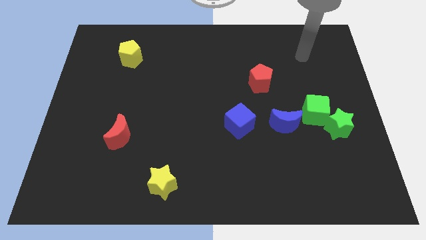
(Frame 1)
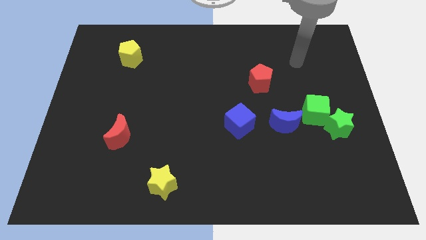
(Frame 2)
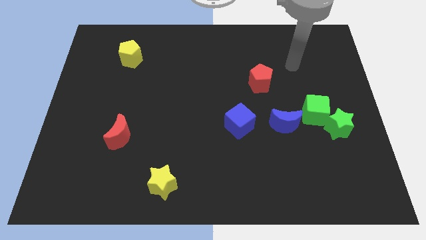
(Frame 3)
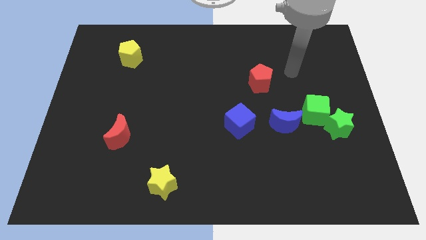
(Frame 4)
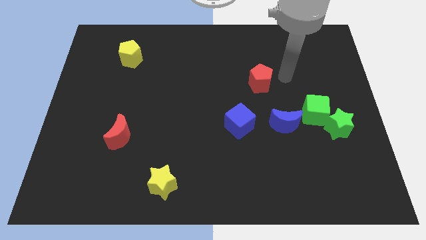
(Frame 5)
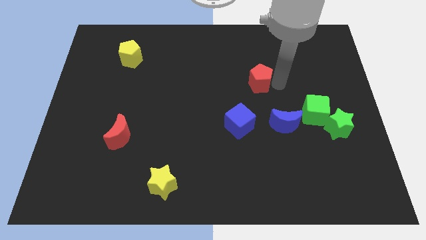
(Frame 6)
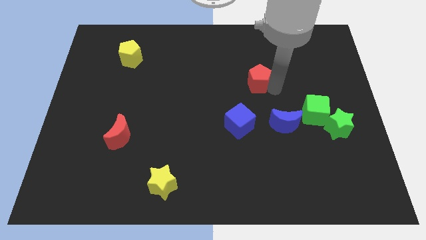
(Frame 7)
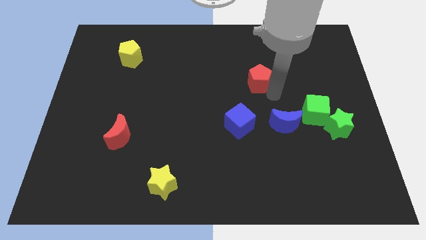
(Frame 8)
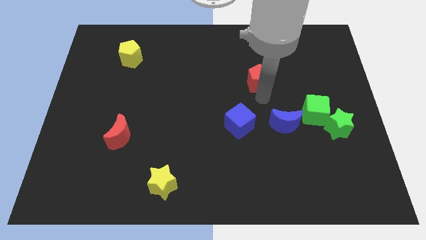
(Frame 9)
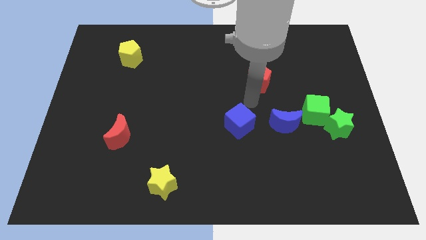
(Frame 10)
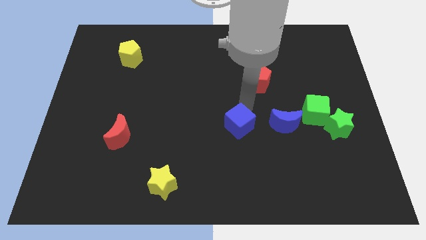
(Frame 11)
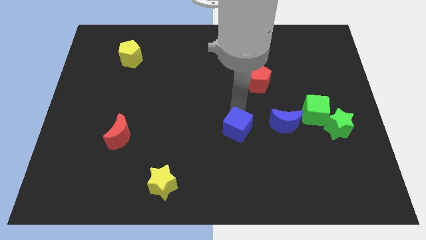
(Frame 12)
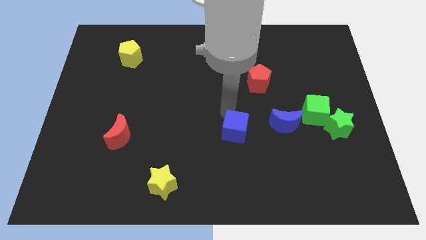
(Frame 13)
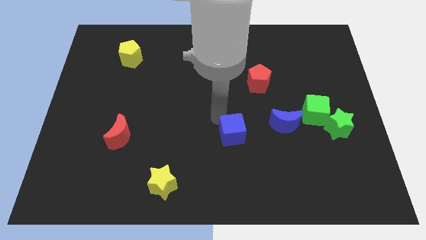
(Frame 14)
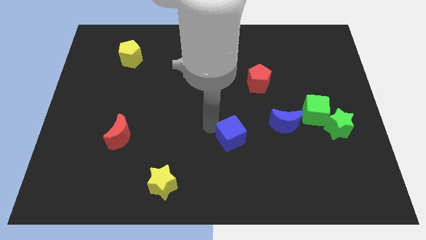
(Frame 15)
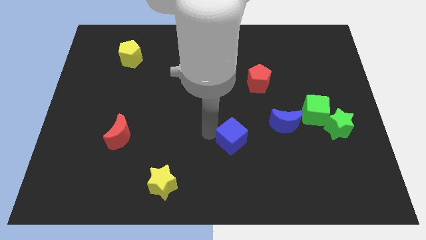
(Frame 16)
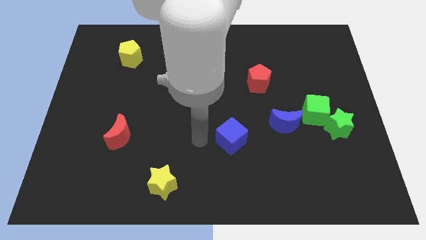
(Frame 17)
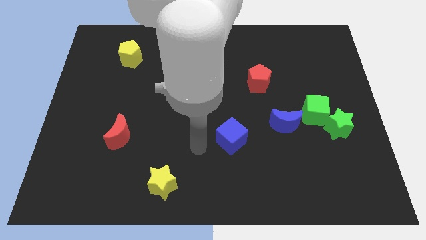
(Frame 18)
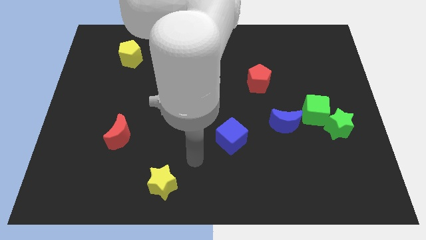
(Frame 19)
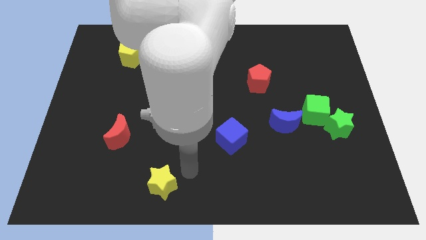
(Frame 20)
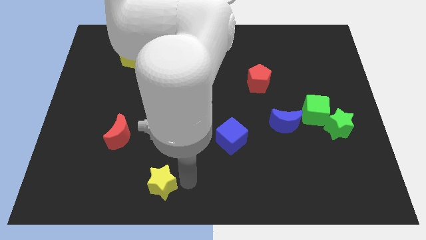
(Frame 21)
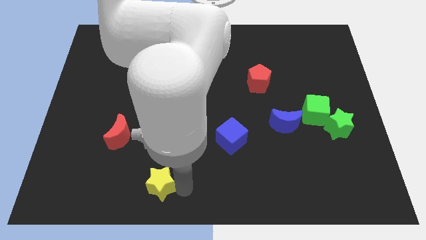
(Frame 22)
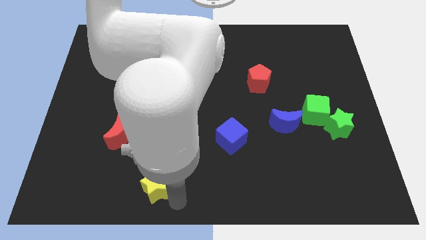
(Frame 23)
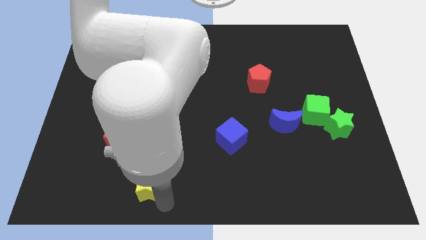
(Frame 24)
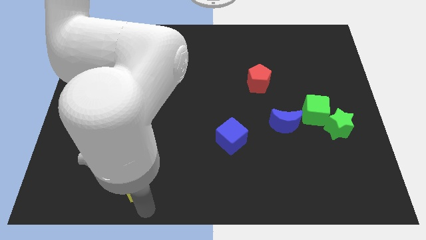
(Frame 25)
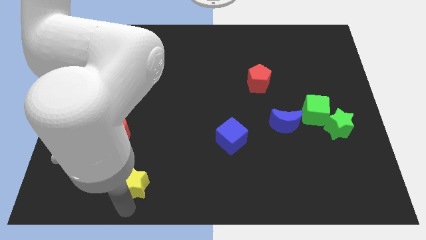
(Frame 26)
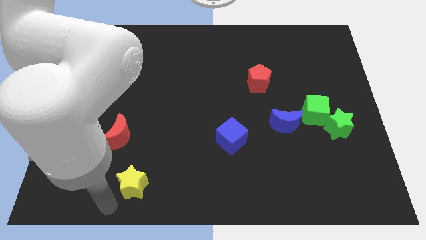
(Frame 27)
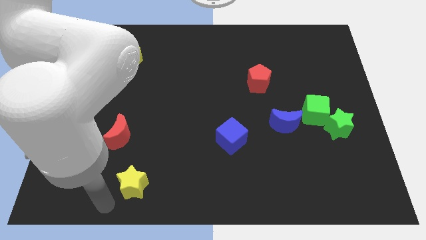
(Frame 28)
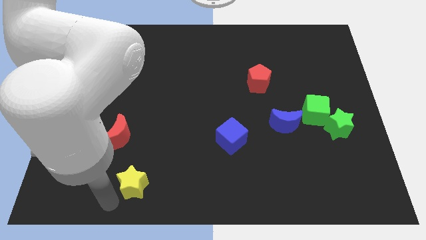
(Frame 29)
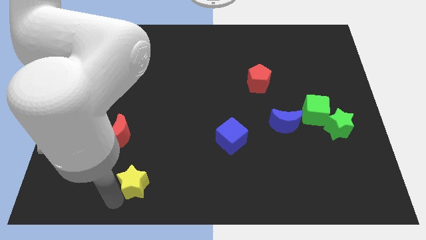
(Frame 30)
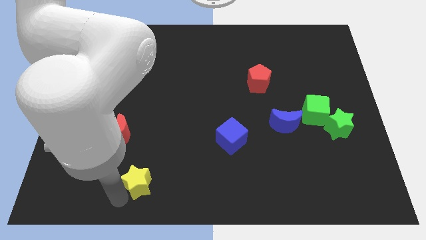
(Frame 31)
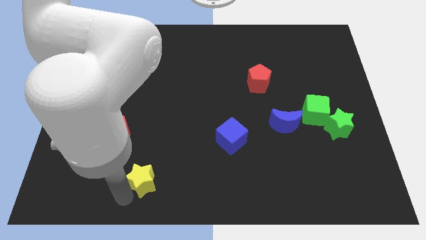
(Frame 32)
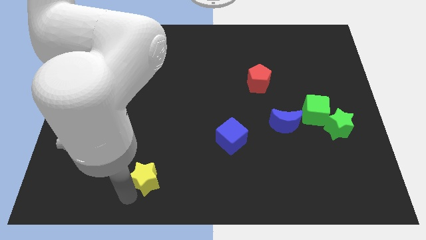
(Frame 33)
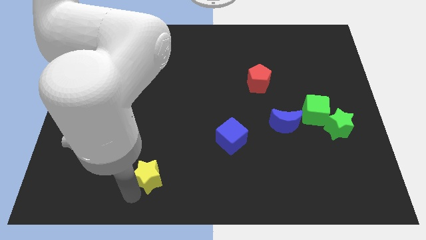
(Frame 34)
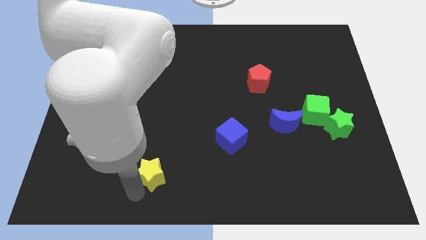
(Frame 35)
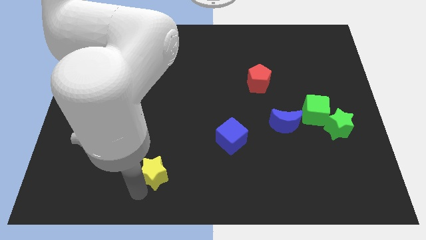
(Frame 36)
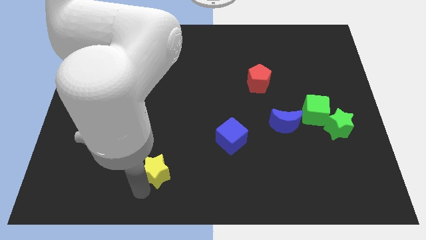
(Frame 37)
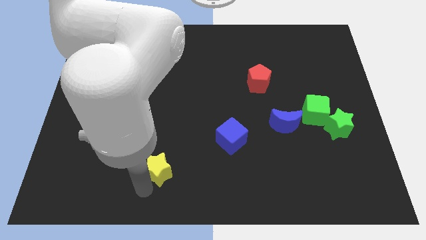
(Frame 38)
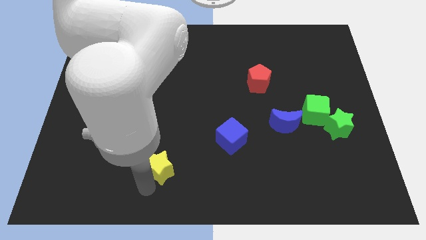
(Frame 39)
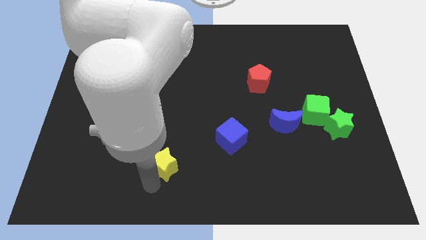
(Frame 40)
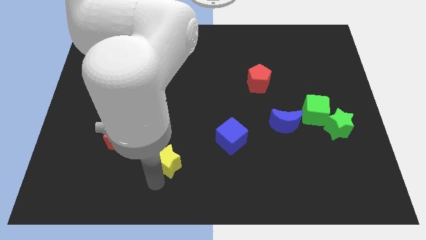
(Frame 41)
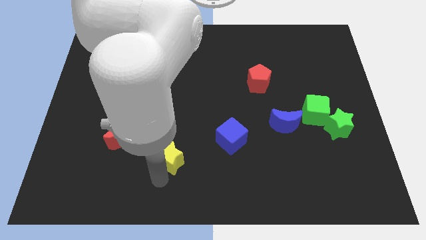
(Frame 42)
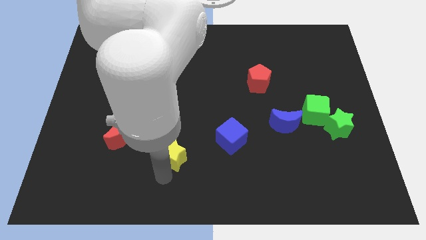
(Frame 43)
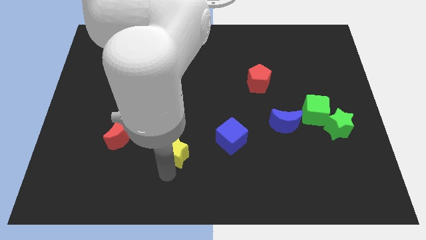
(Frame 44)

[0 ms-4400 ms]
move the yellow star a little up

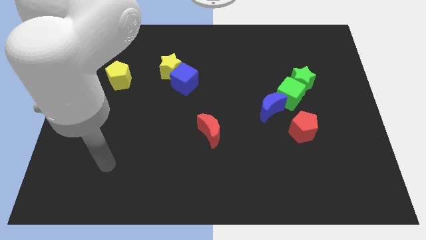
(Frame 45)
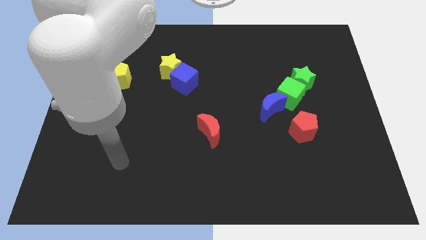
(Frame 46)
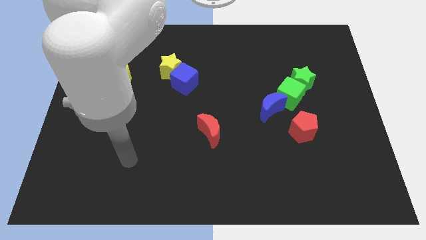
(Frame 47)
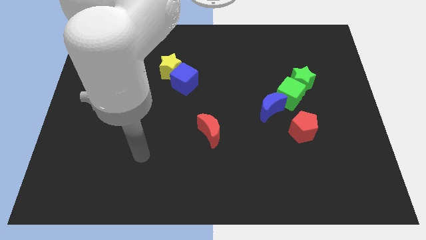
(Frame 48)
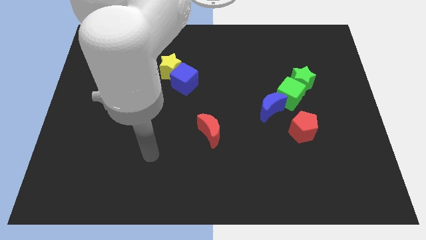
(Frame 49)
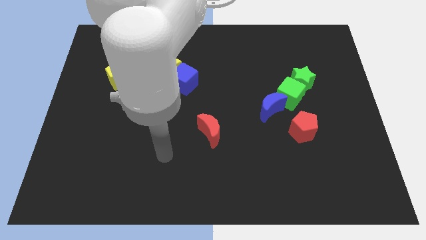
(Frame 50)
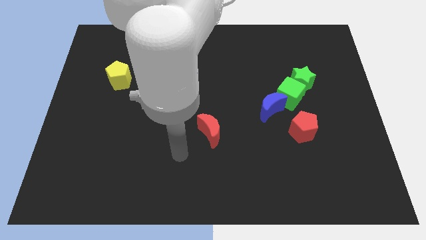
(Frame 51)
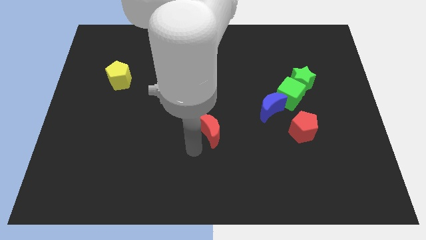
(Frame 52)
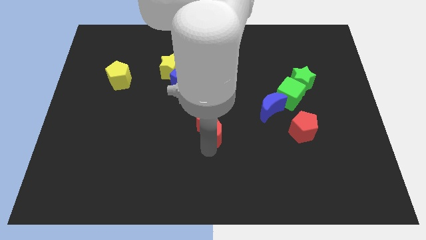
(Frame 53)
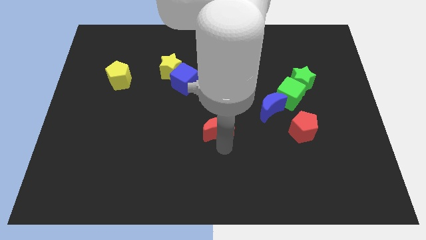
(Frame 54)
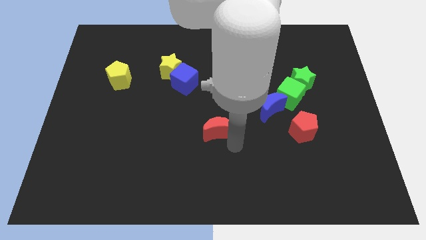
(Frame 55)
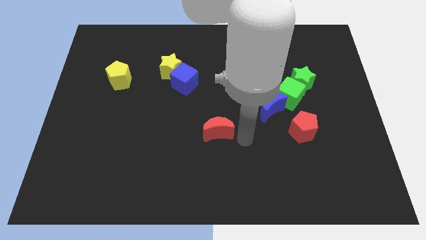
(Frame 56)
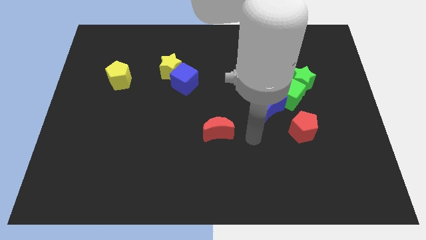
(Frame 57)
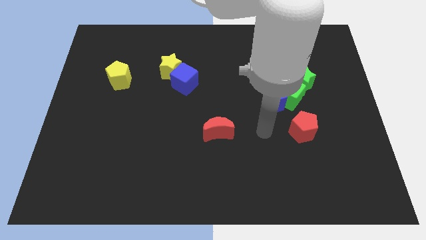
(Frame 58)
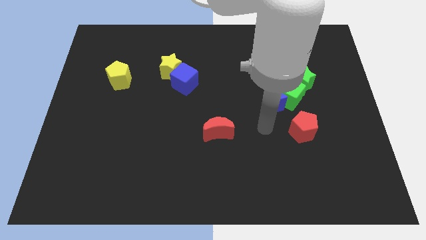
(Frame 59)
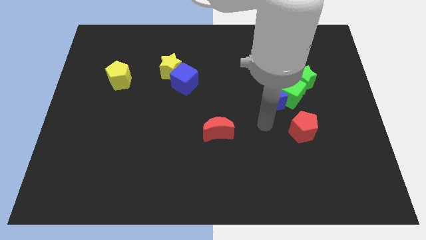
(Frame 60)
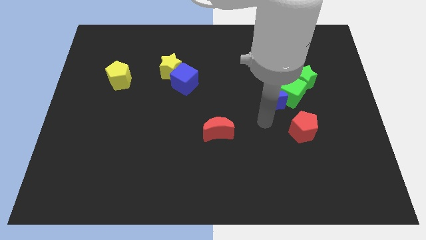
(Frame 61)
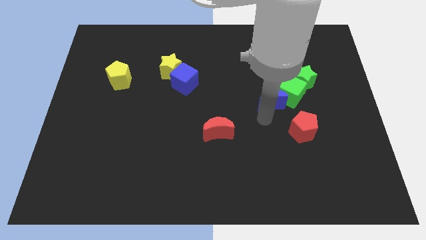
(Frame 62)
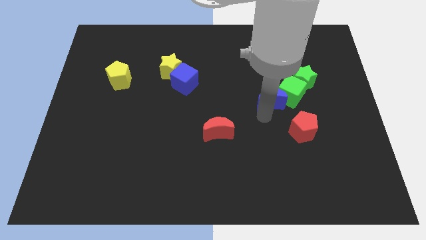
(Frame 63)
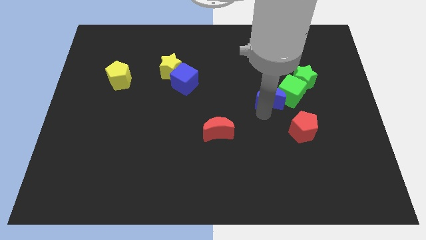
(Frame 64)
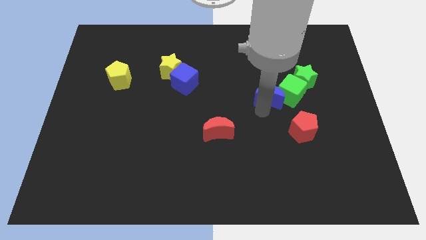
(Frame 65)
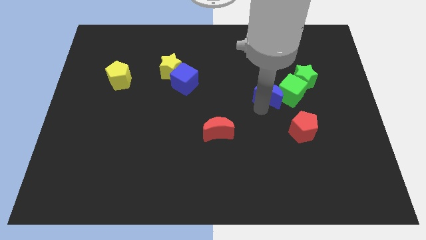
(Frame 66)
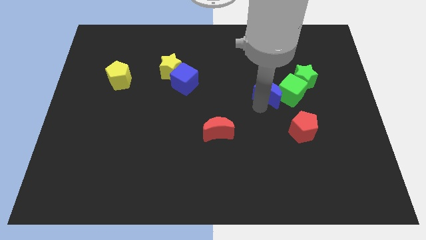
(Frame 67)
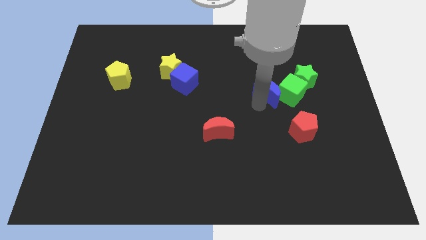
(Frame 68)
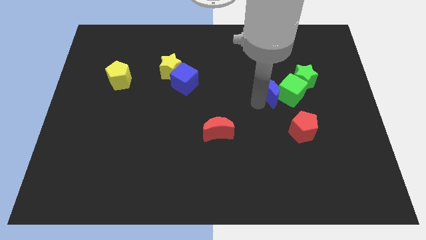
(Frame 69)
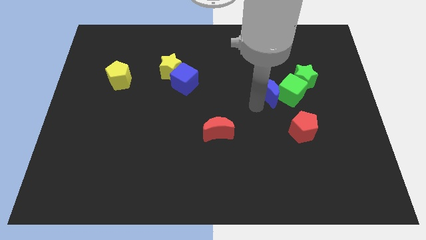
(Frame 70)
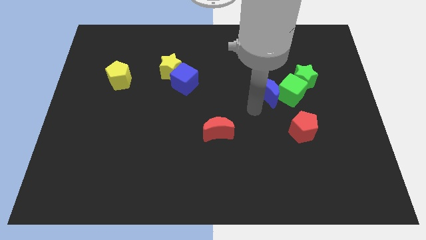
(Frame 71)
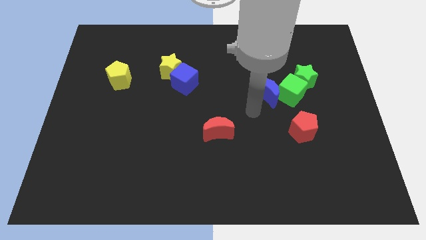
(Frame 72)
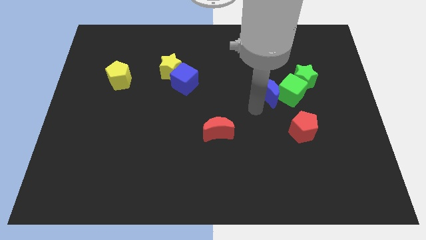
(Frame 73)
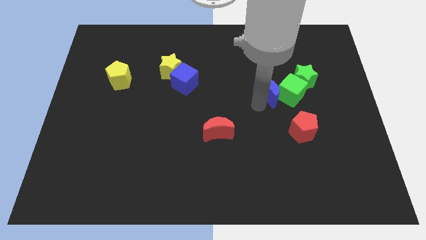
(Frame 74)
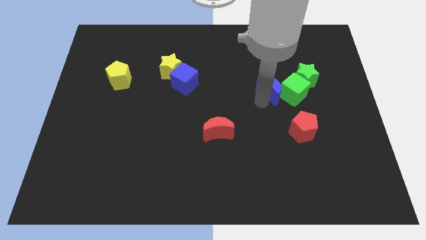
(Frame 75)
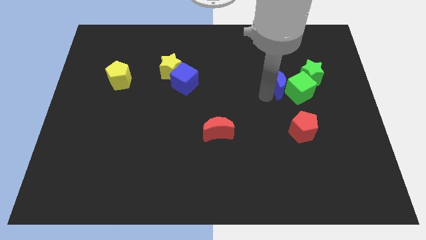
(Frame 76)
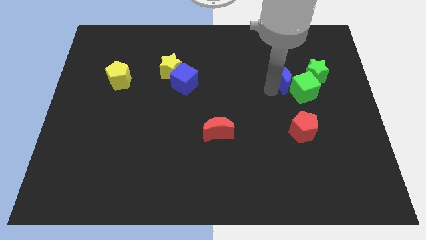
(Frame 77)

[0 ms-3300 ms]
slide the blue moon a little diagonally upwards and to the right
